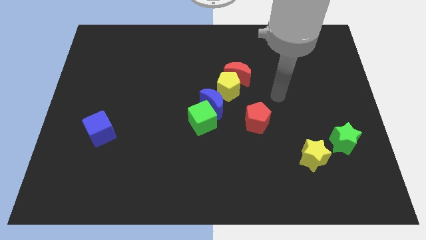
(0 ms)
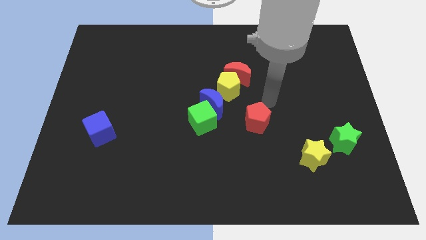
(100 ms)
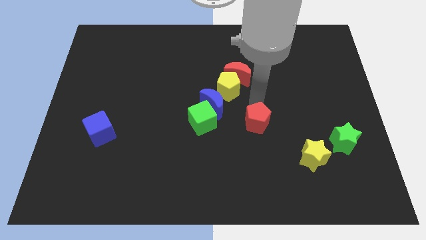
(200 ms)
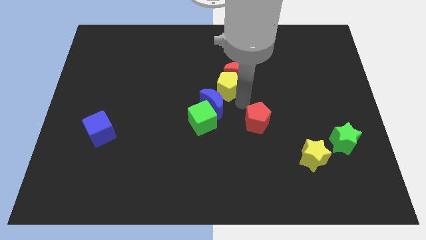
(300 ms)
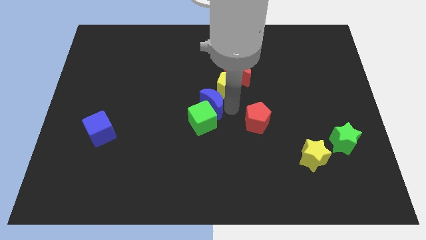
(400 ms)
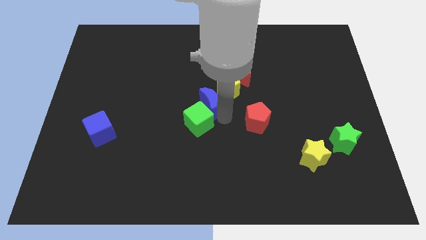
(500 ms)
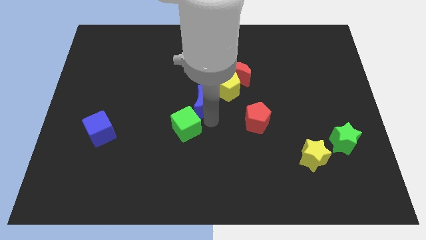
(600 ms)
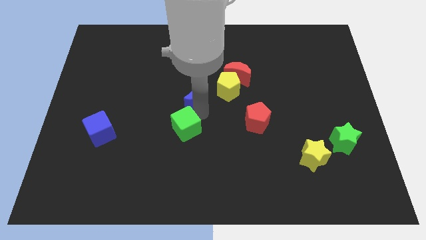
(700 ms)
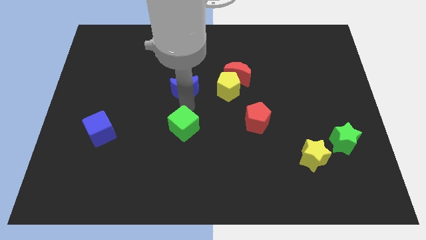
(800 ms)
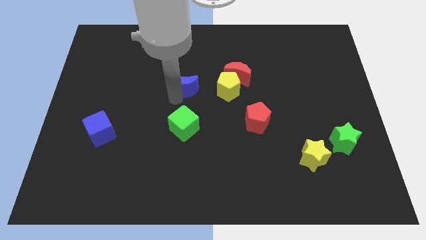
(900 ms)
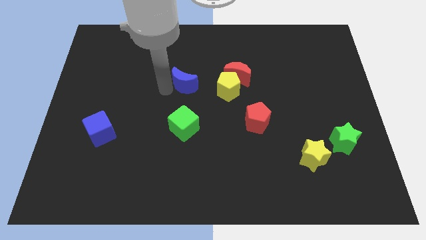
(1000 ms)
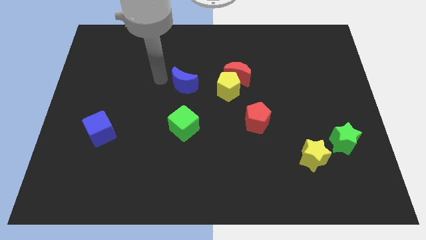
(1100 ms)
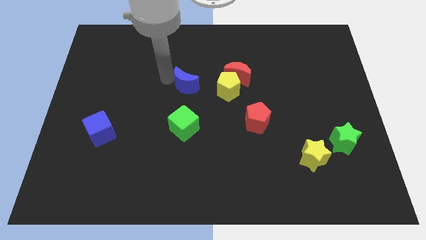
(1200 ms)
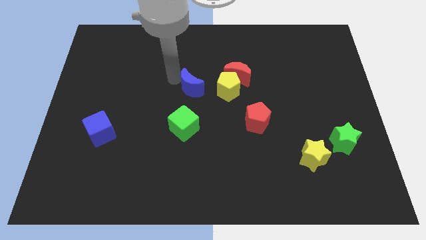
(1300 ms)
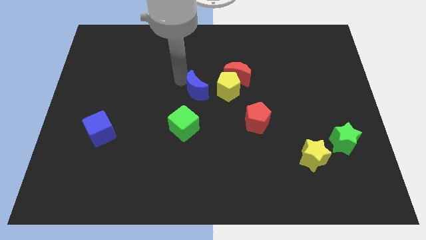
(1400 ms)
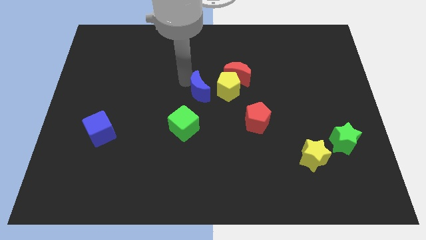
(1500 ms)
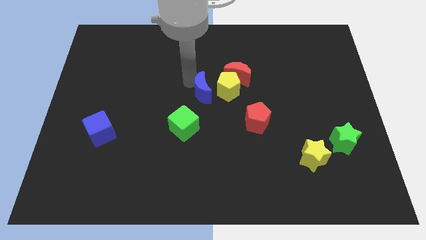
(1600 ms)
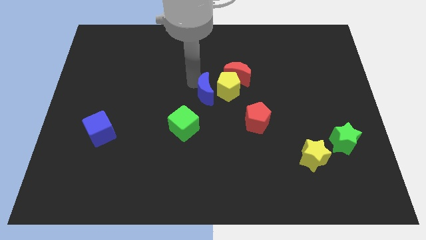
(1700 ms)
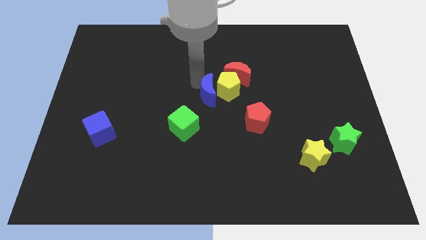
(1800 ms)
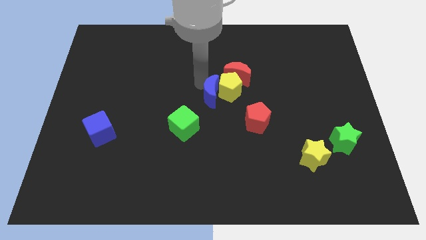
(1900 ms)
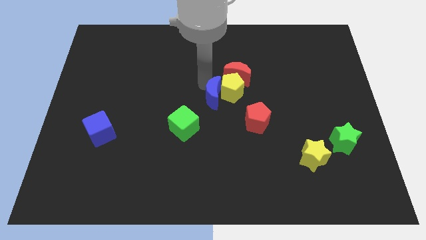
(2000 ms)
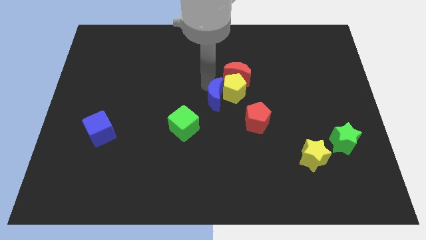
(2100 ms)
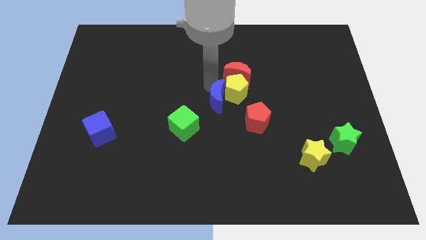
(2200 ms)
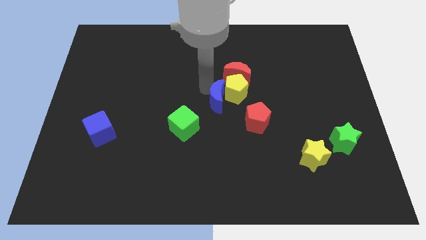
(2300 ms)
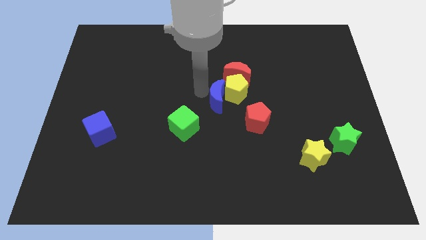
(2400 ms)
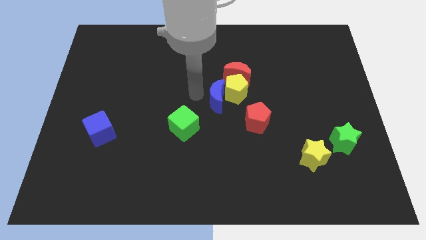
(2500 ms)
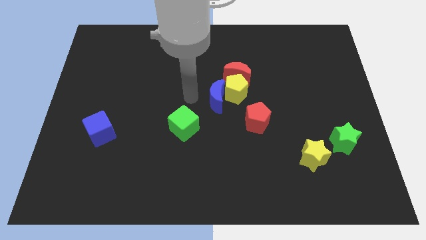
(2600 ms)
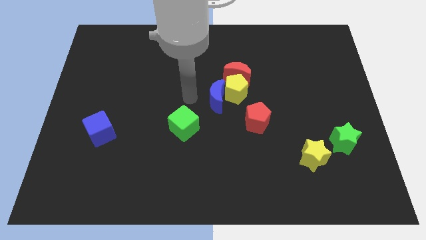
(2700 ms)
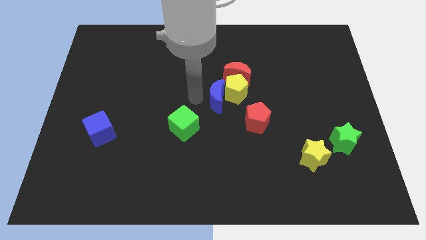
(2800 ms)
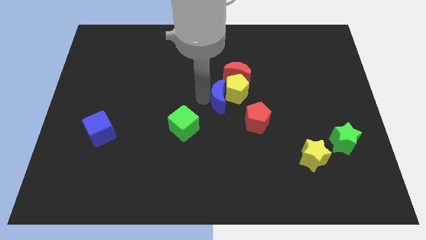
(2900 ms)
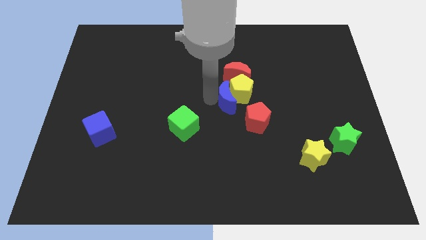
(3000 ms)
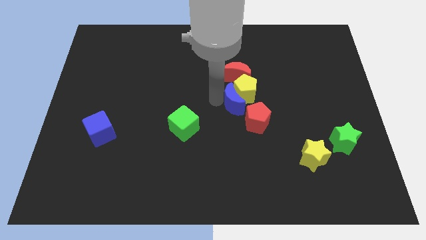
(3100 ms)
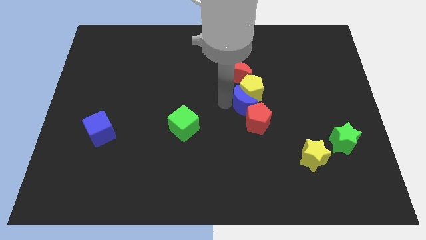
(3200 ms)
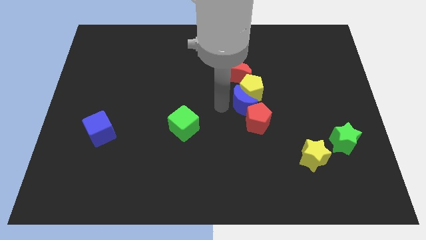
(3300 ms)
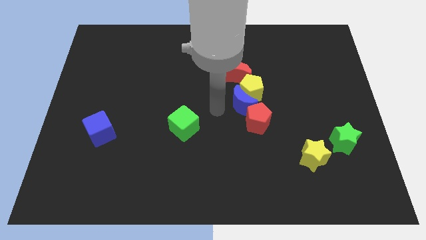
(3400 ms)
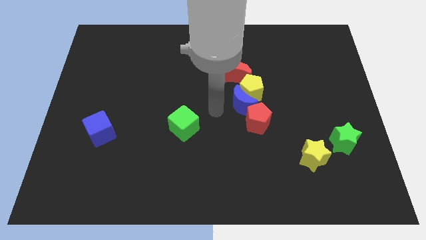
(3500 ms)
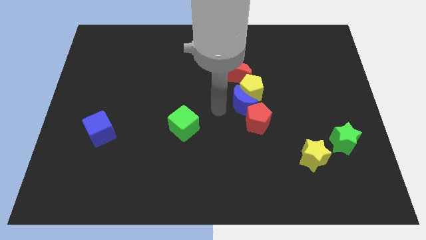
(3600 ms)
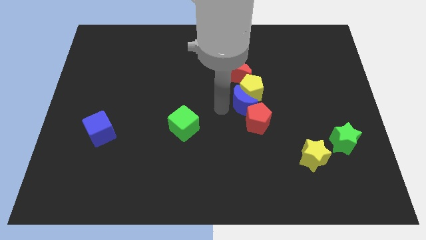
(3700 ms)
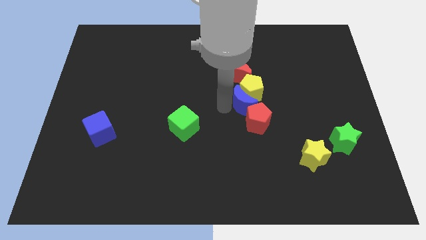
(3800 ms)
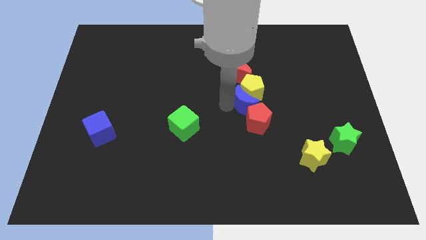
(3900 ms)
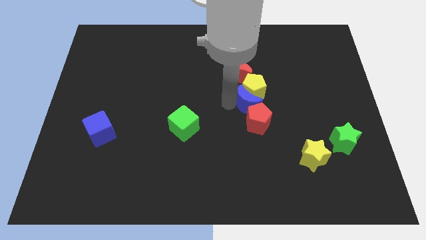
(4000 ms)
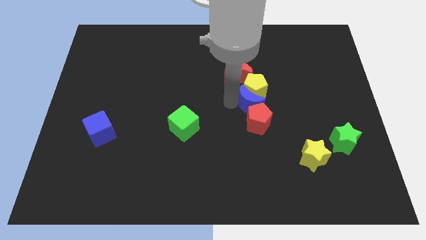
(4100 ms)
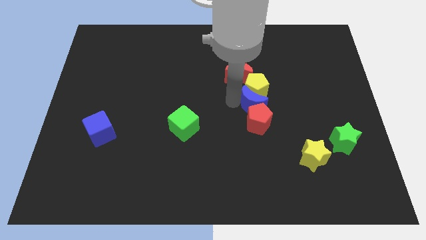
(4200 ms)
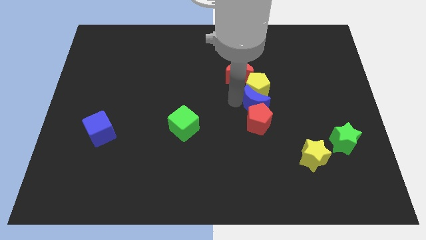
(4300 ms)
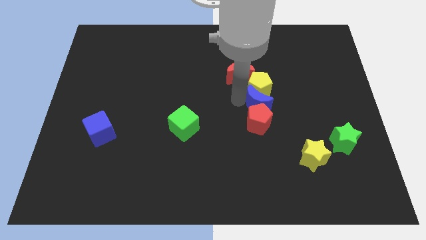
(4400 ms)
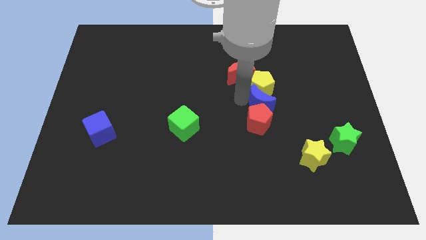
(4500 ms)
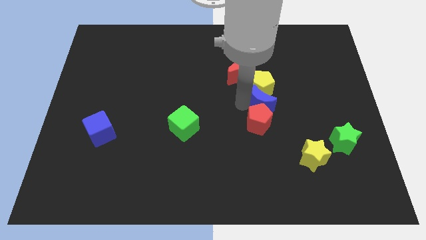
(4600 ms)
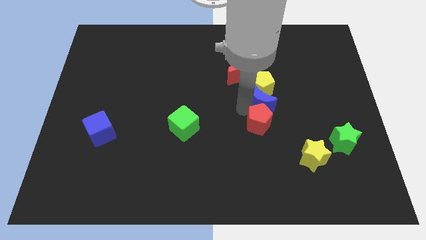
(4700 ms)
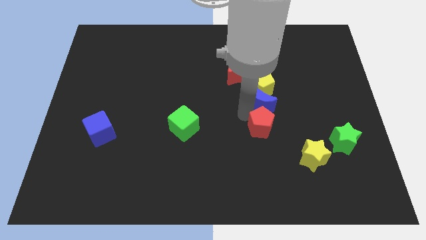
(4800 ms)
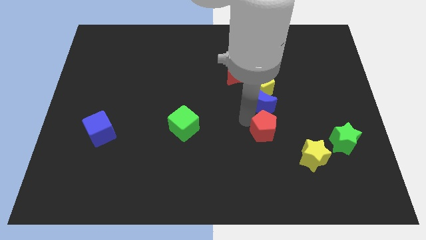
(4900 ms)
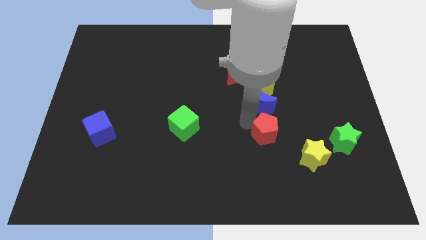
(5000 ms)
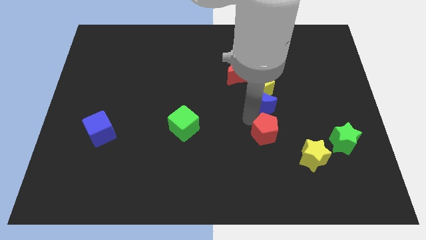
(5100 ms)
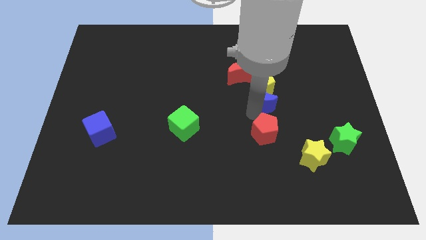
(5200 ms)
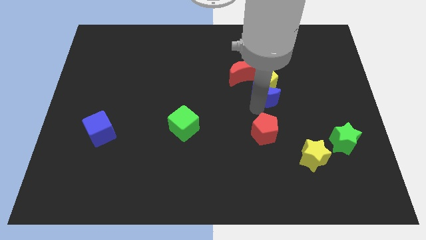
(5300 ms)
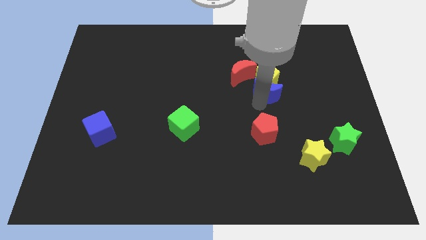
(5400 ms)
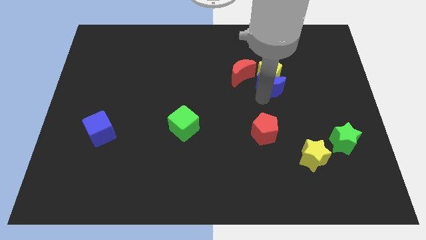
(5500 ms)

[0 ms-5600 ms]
move the blue moon right of the red moon

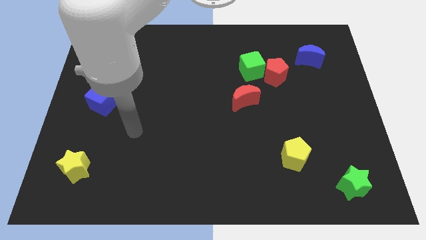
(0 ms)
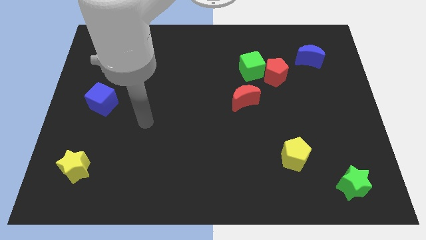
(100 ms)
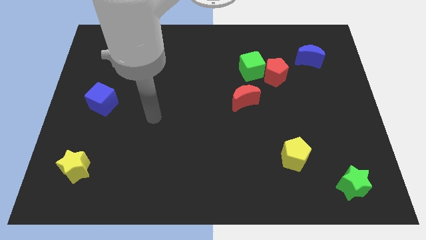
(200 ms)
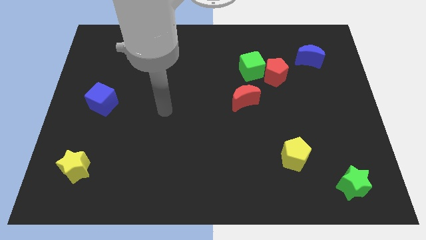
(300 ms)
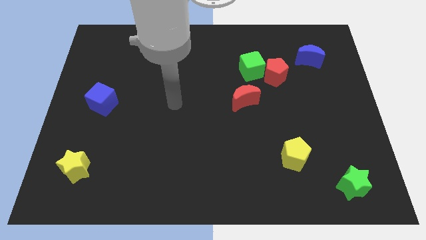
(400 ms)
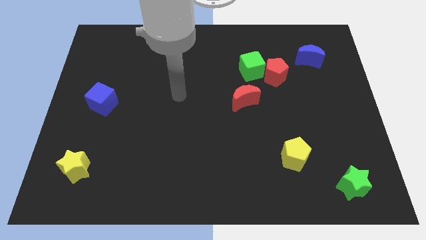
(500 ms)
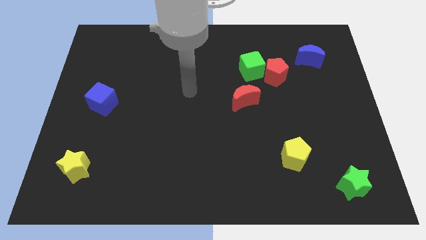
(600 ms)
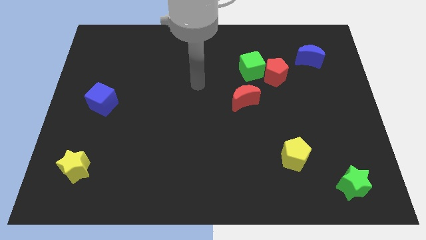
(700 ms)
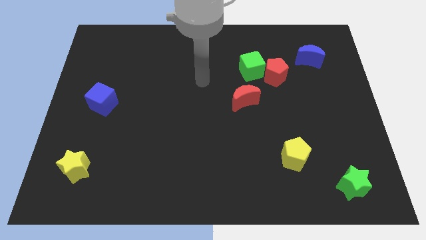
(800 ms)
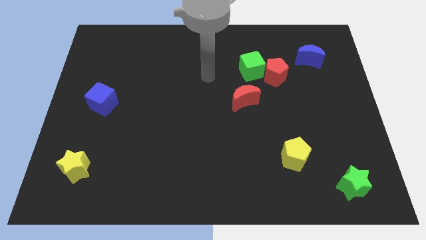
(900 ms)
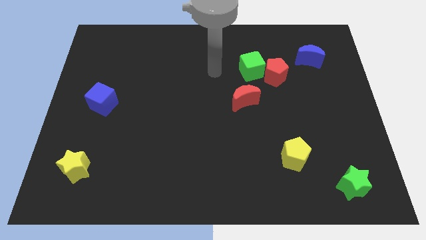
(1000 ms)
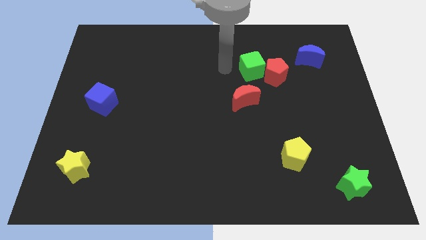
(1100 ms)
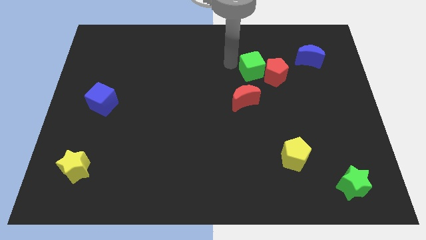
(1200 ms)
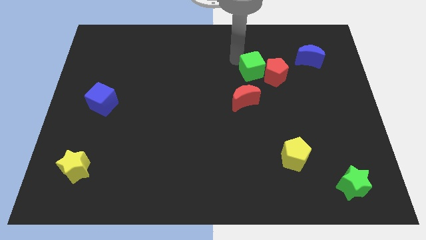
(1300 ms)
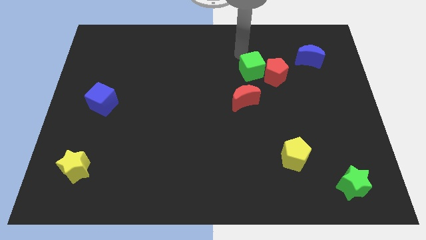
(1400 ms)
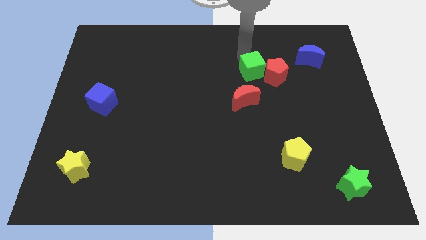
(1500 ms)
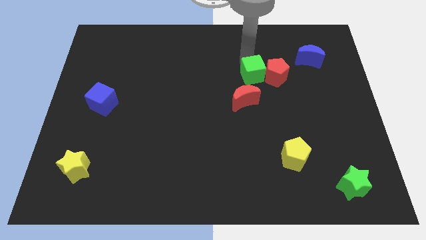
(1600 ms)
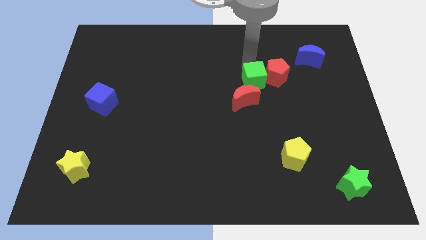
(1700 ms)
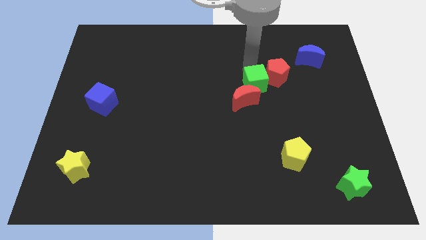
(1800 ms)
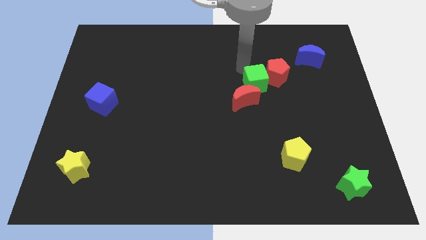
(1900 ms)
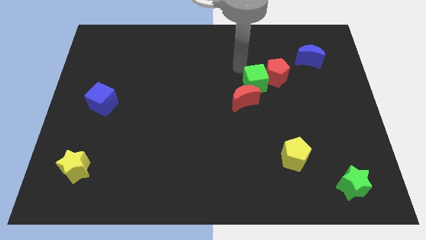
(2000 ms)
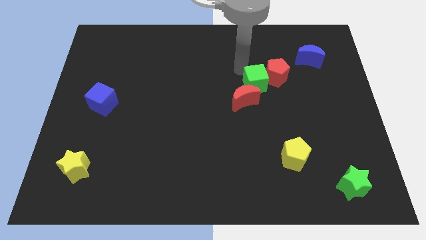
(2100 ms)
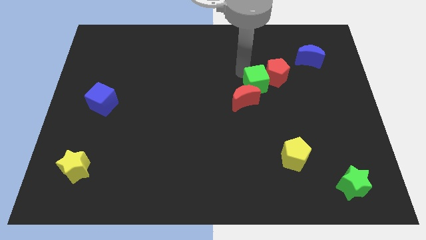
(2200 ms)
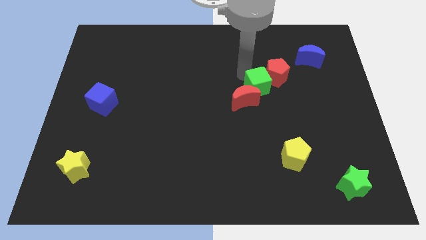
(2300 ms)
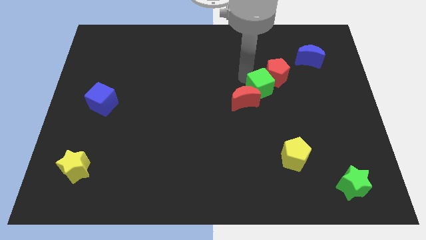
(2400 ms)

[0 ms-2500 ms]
put the green cube to the bottom of the red pentagon
